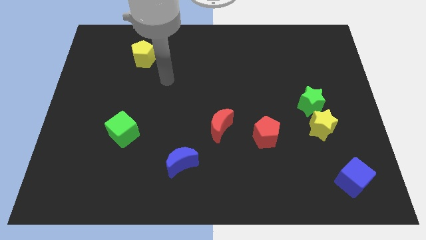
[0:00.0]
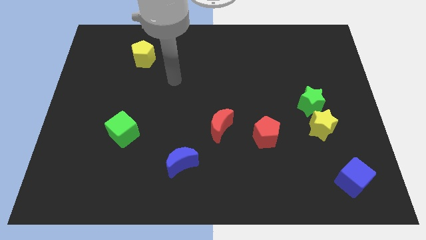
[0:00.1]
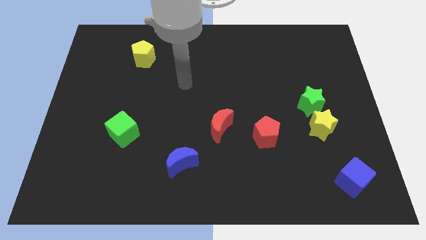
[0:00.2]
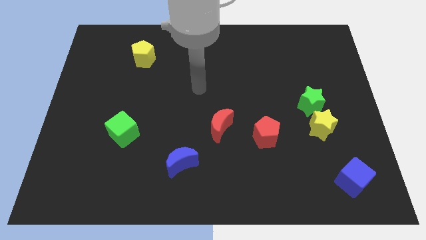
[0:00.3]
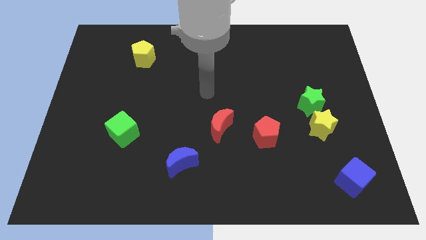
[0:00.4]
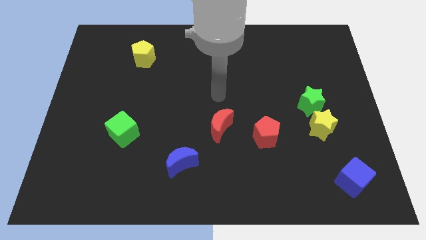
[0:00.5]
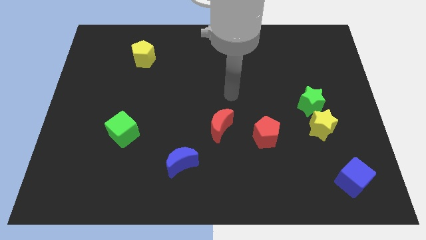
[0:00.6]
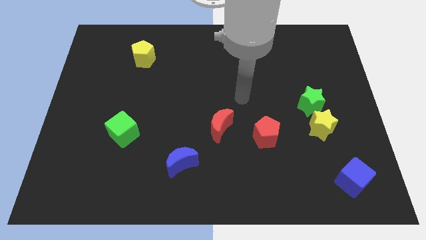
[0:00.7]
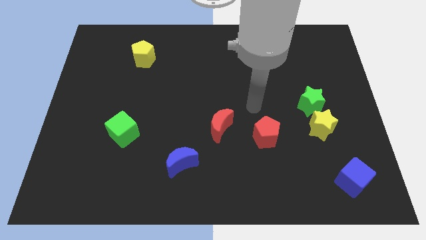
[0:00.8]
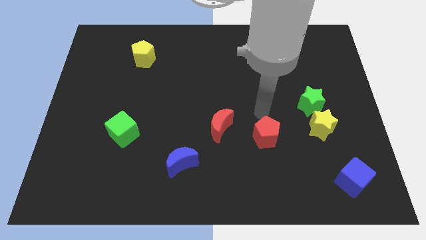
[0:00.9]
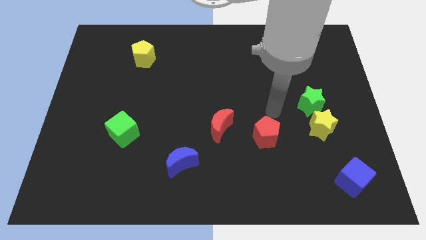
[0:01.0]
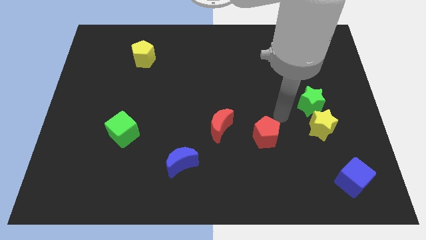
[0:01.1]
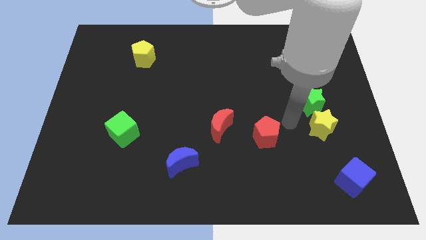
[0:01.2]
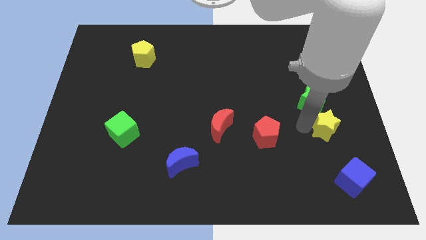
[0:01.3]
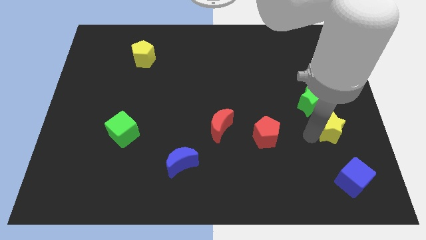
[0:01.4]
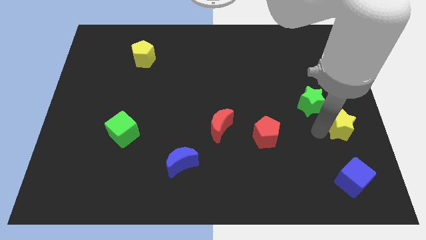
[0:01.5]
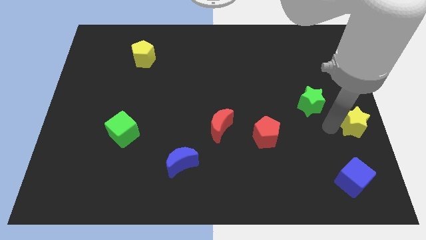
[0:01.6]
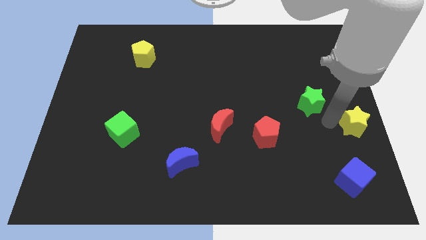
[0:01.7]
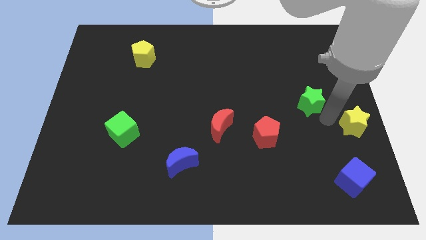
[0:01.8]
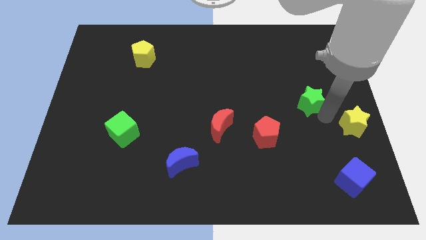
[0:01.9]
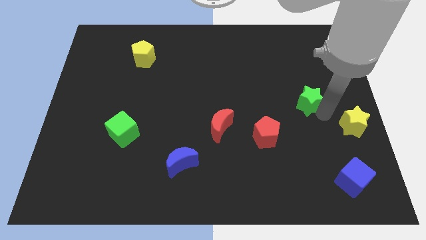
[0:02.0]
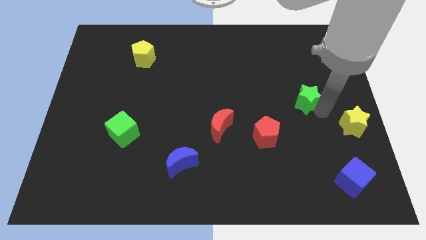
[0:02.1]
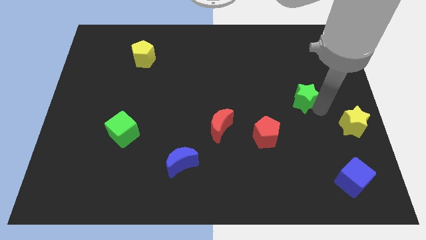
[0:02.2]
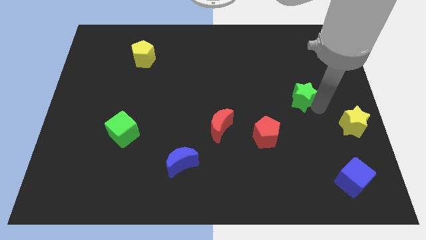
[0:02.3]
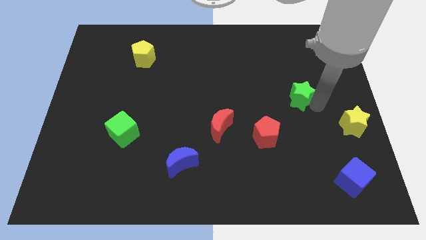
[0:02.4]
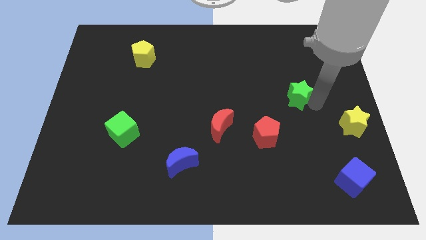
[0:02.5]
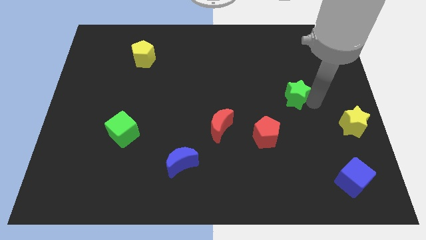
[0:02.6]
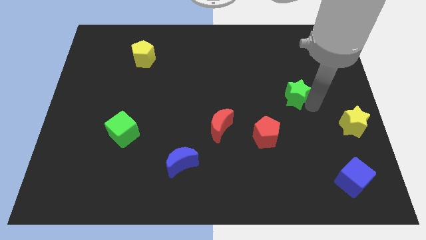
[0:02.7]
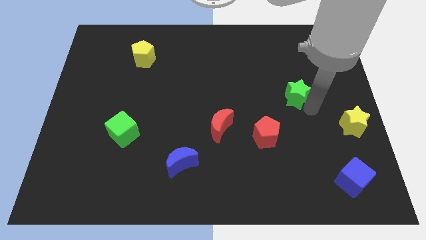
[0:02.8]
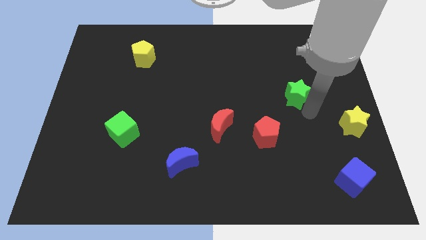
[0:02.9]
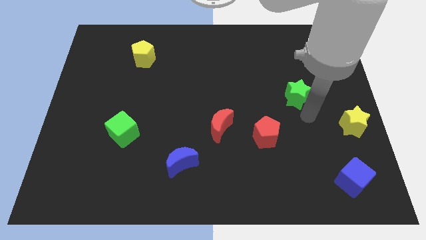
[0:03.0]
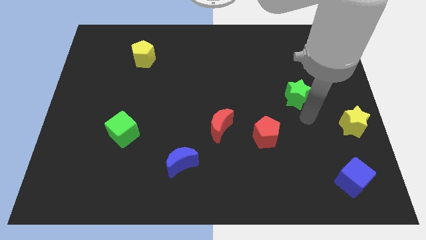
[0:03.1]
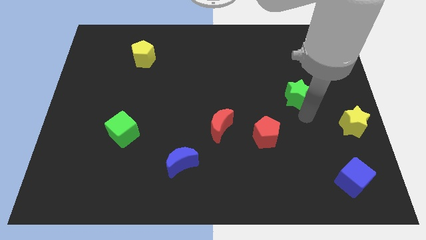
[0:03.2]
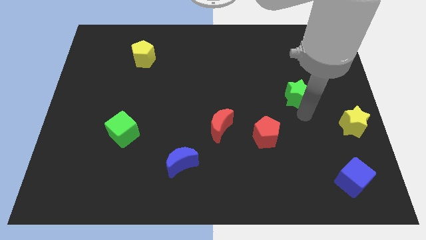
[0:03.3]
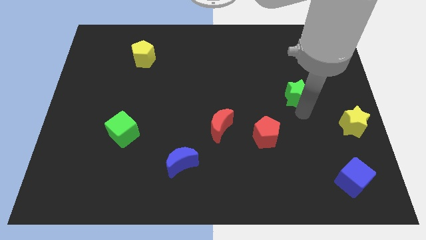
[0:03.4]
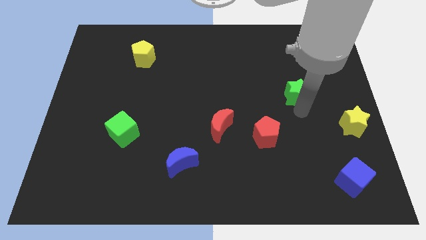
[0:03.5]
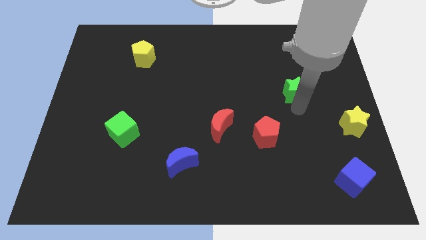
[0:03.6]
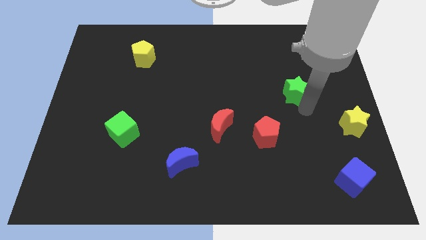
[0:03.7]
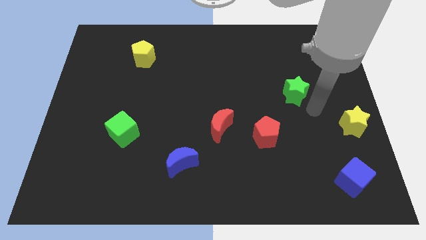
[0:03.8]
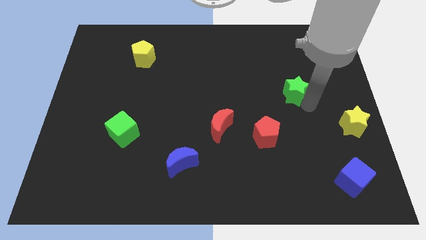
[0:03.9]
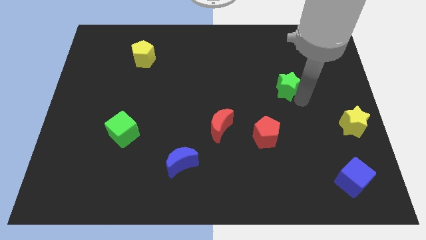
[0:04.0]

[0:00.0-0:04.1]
slightly move the green star up and to the left

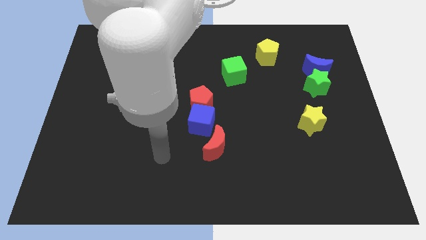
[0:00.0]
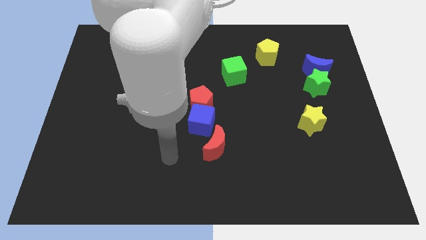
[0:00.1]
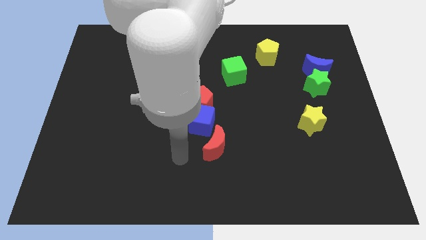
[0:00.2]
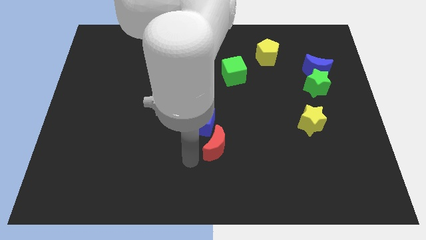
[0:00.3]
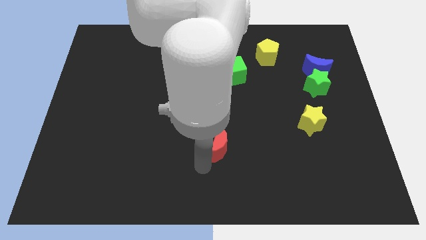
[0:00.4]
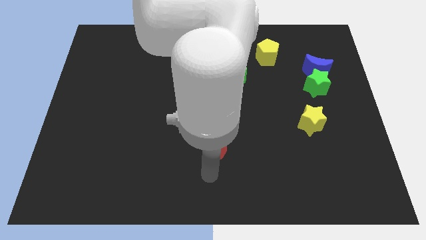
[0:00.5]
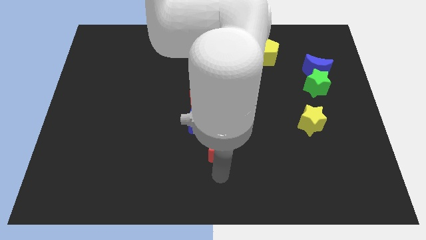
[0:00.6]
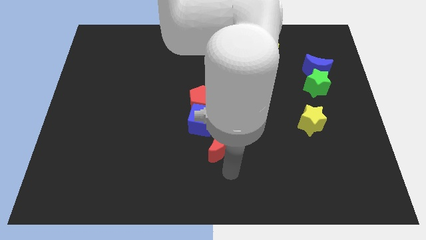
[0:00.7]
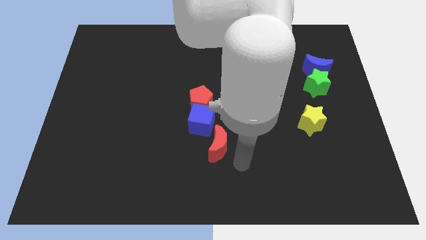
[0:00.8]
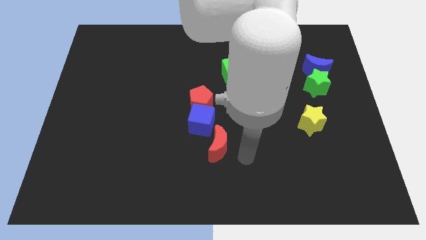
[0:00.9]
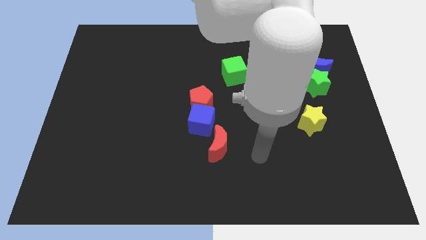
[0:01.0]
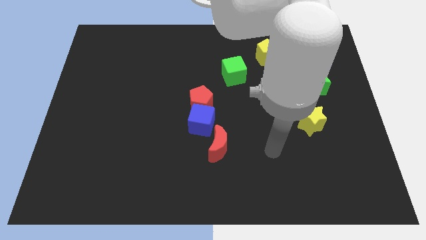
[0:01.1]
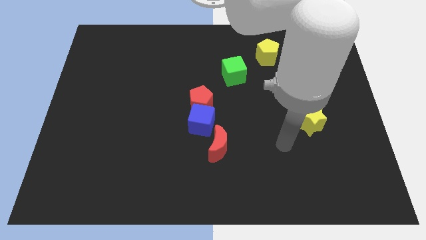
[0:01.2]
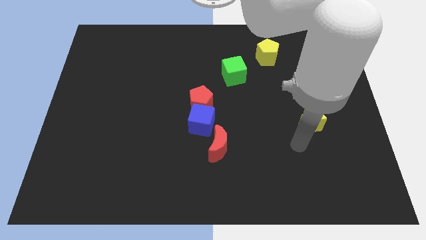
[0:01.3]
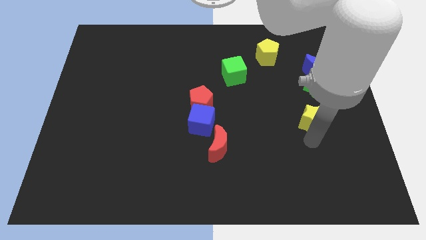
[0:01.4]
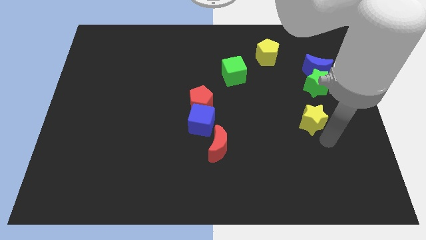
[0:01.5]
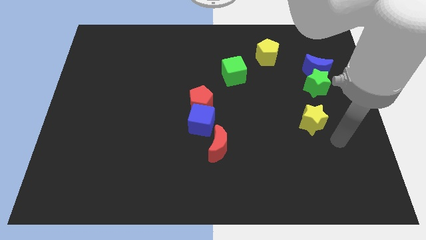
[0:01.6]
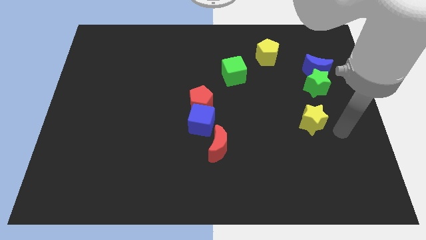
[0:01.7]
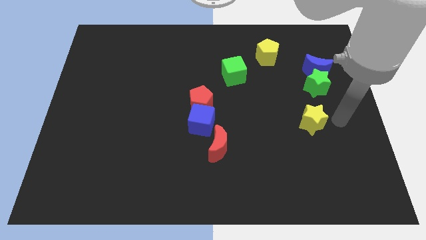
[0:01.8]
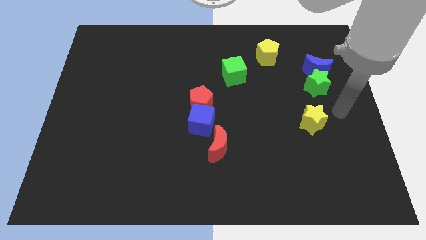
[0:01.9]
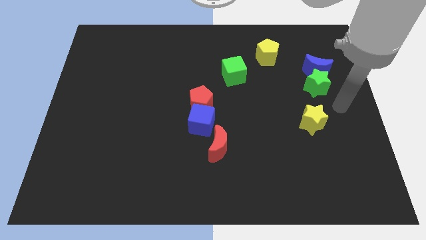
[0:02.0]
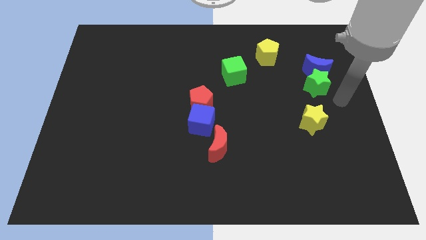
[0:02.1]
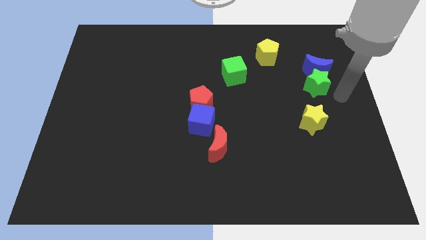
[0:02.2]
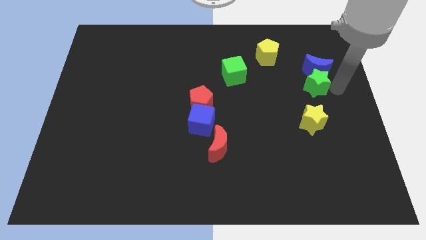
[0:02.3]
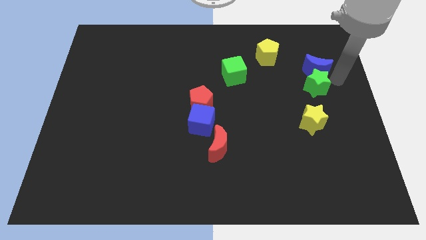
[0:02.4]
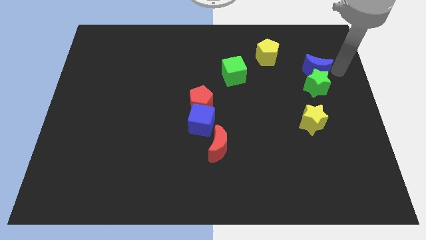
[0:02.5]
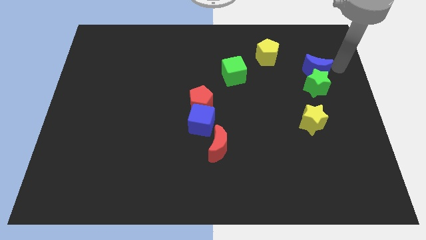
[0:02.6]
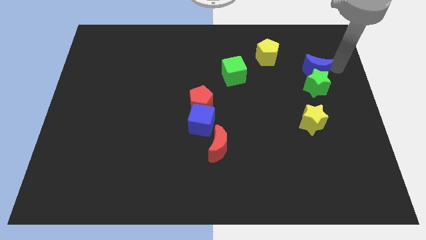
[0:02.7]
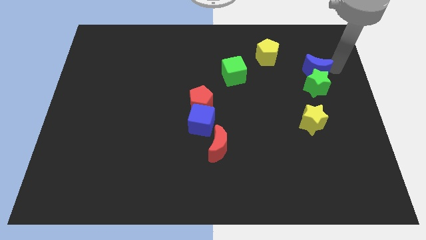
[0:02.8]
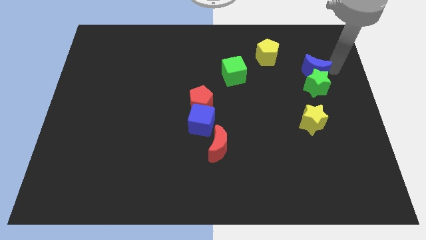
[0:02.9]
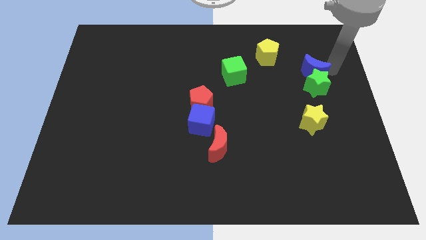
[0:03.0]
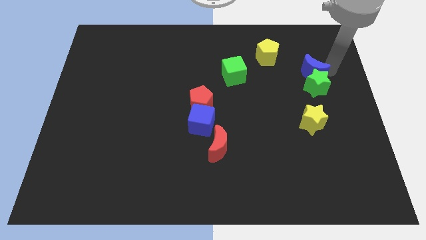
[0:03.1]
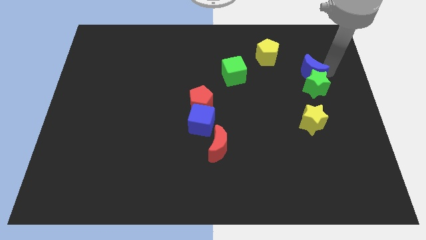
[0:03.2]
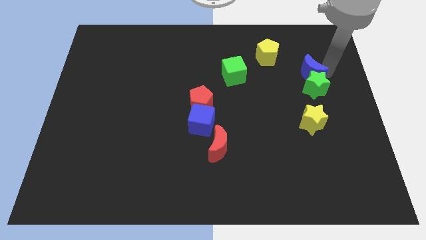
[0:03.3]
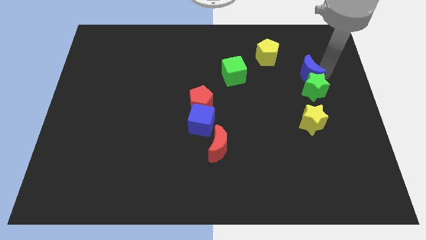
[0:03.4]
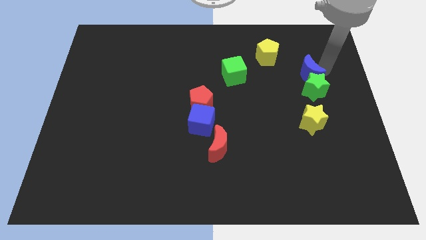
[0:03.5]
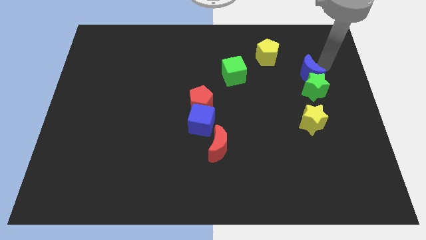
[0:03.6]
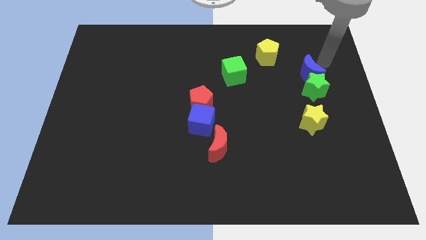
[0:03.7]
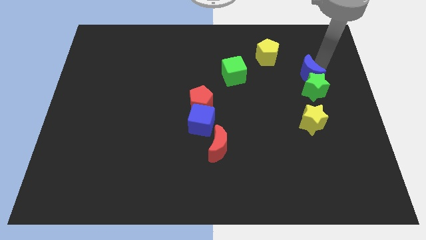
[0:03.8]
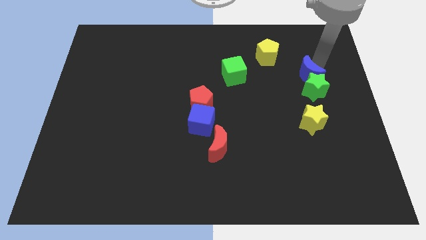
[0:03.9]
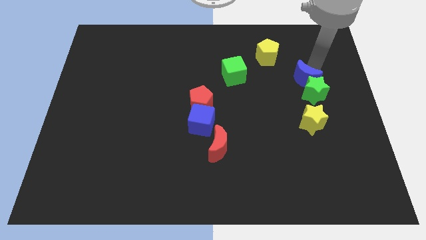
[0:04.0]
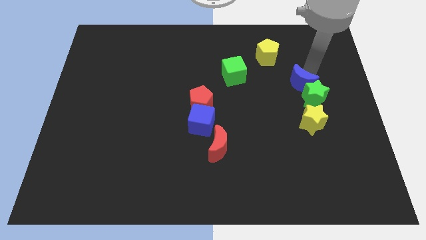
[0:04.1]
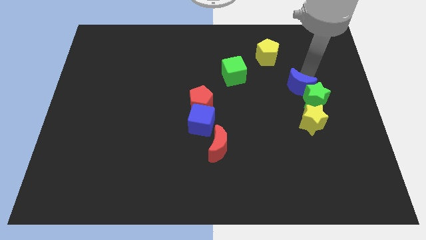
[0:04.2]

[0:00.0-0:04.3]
slide the blue moon downwards and left diagonally a bit

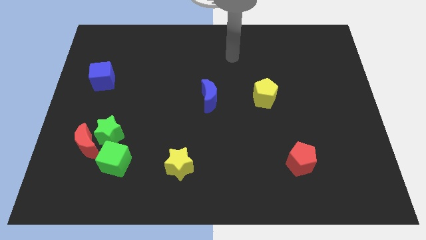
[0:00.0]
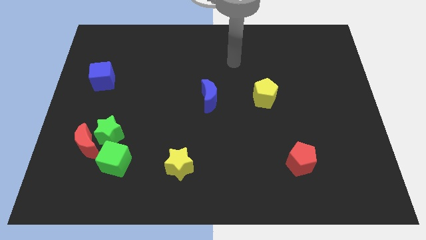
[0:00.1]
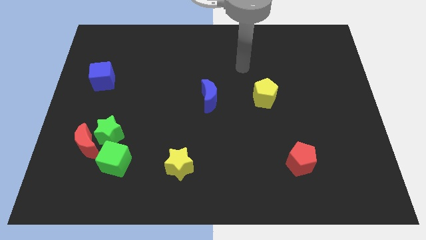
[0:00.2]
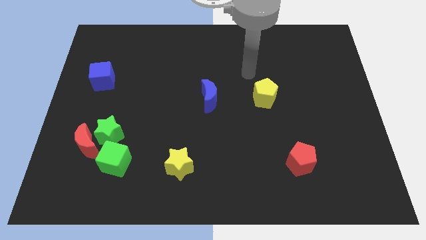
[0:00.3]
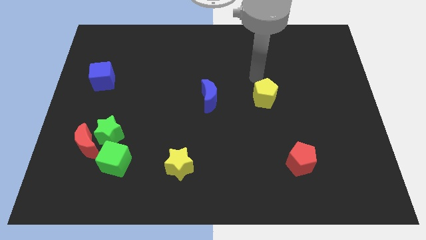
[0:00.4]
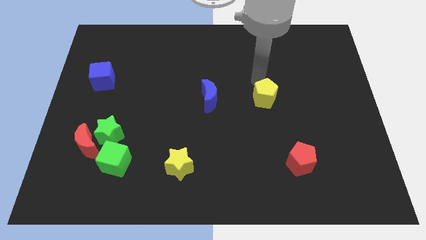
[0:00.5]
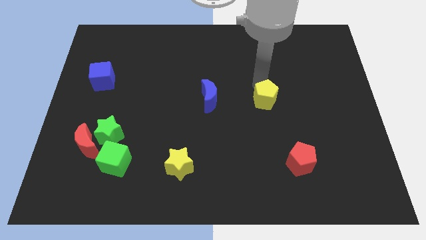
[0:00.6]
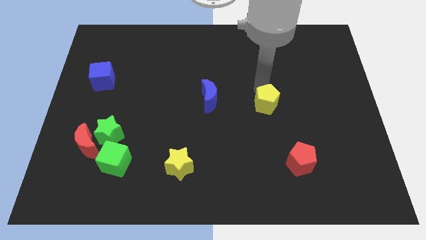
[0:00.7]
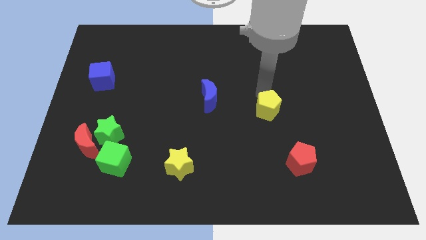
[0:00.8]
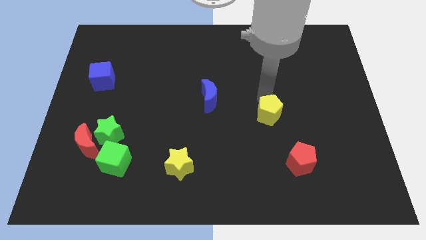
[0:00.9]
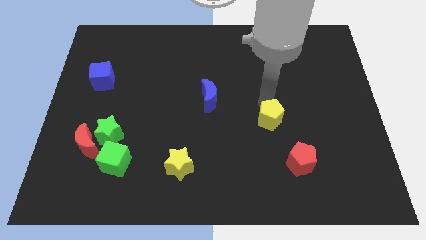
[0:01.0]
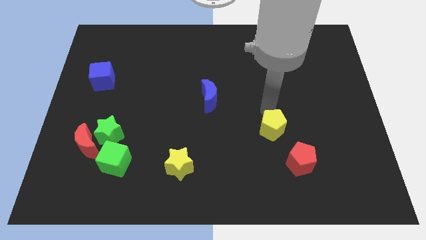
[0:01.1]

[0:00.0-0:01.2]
slide the yellow pentagon down slightly
